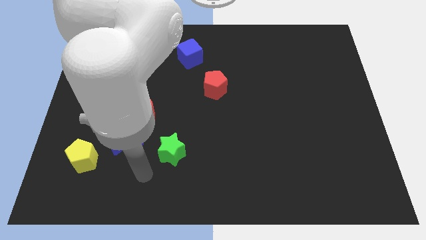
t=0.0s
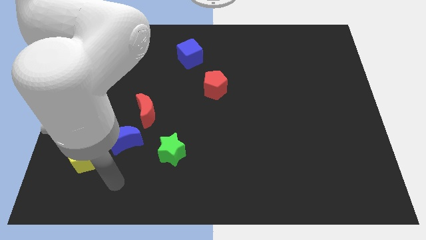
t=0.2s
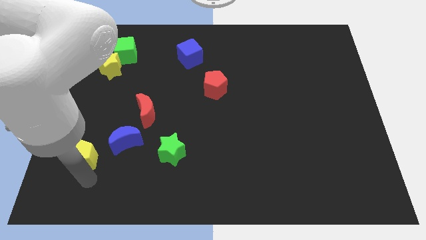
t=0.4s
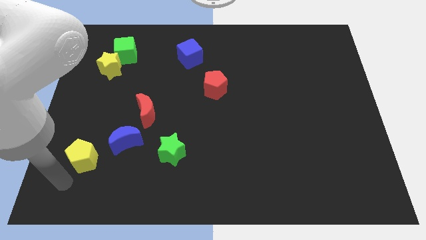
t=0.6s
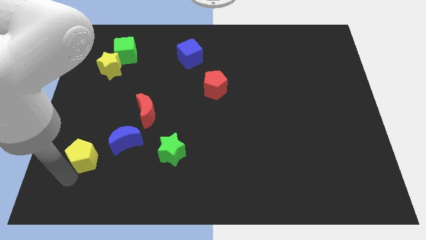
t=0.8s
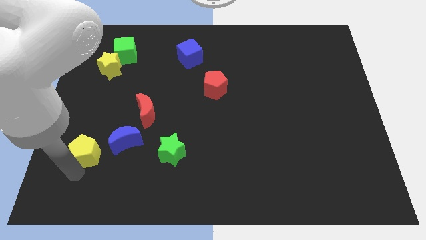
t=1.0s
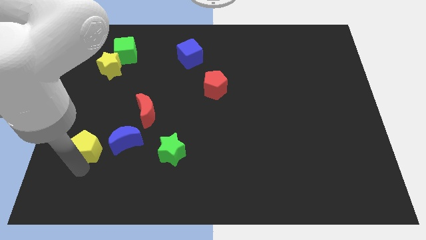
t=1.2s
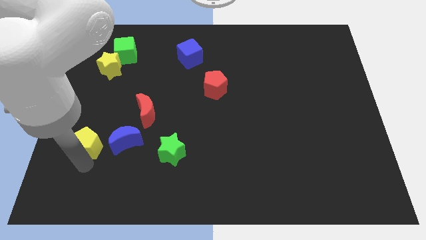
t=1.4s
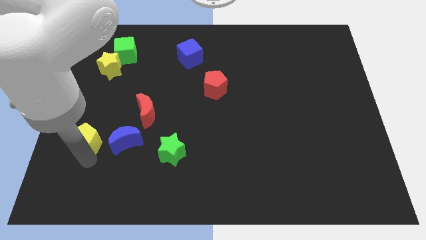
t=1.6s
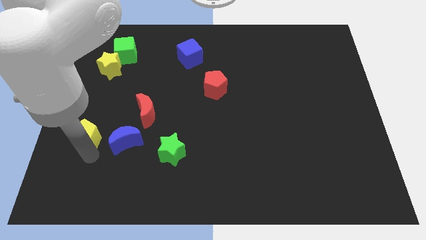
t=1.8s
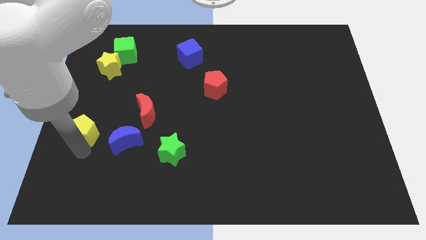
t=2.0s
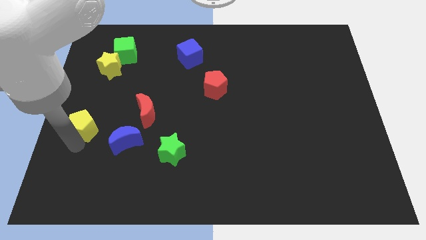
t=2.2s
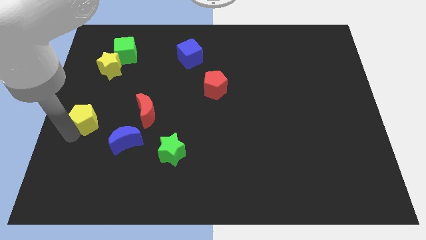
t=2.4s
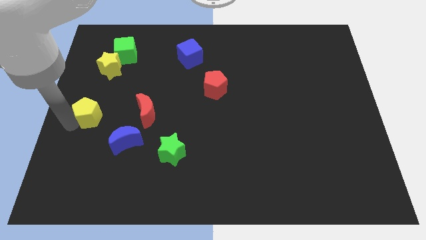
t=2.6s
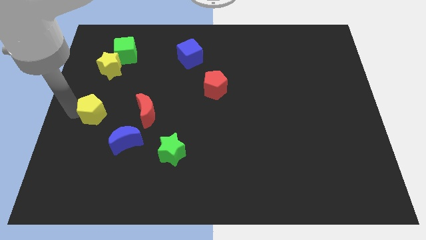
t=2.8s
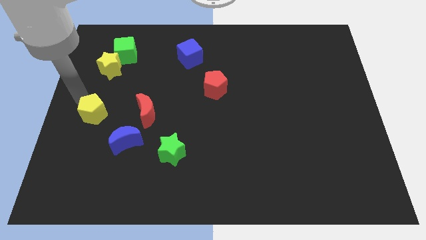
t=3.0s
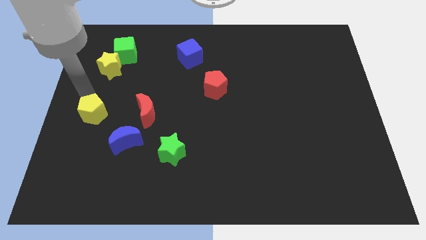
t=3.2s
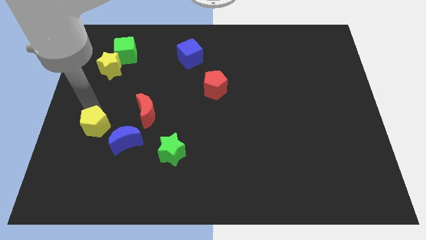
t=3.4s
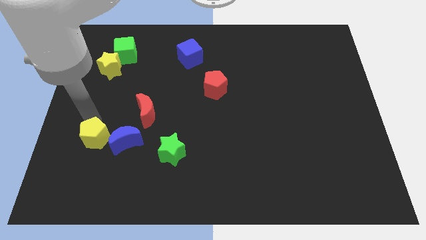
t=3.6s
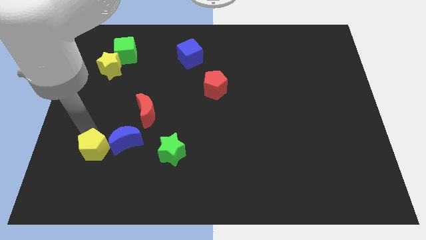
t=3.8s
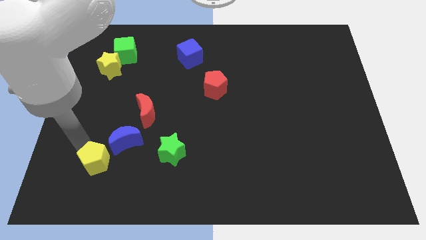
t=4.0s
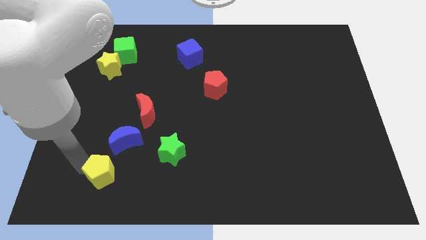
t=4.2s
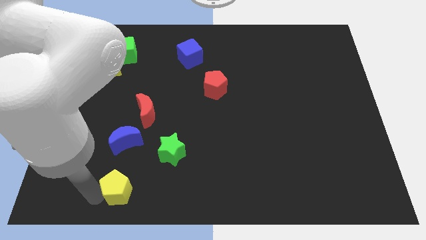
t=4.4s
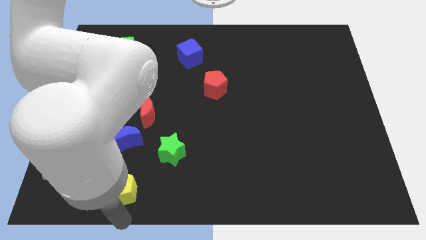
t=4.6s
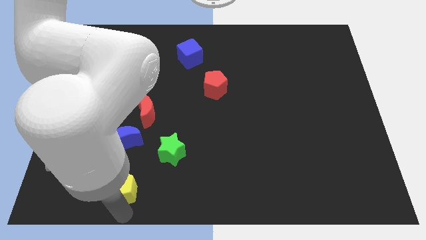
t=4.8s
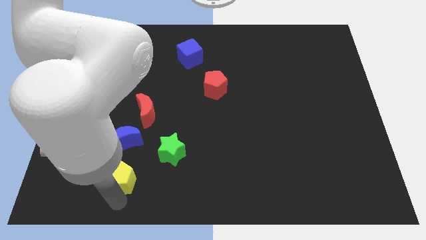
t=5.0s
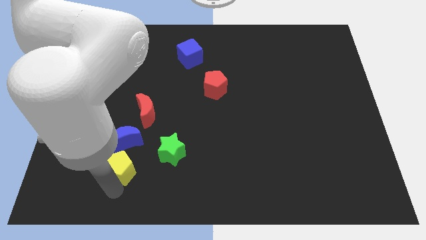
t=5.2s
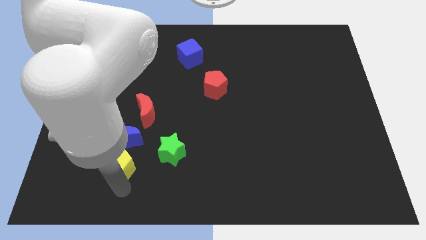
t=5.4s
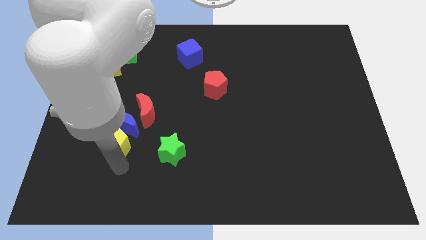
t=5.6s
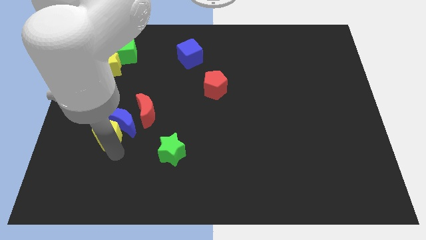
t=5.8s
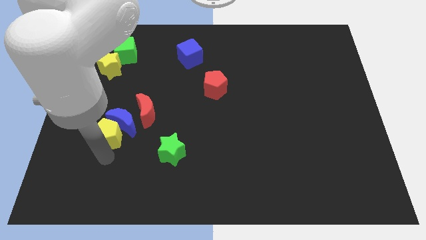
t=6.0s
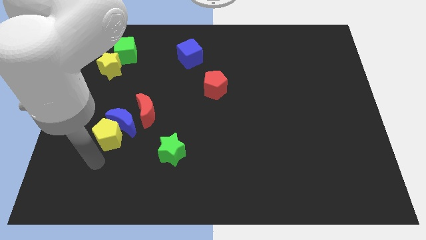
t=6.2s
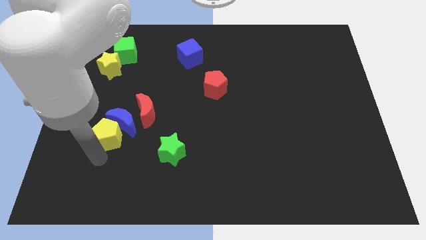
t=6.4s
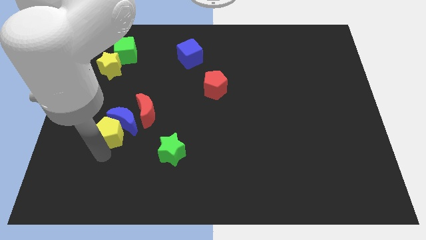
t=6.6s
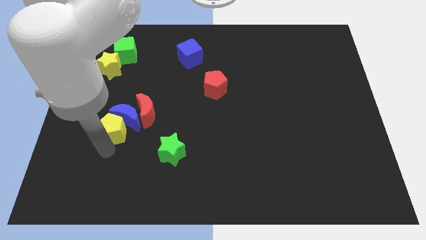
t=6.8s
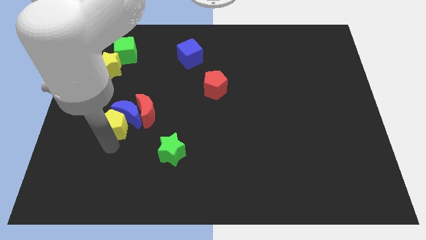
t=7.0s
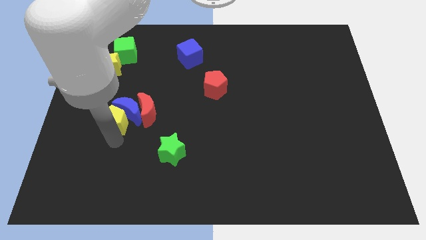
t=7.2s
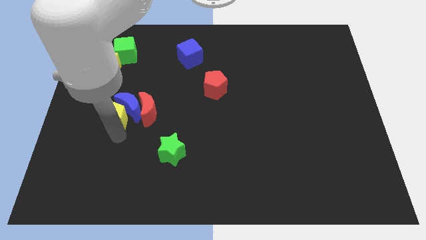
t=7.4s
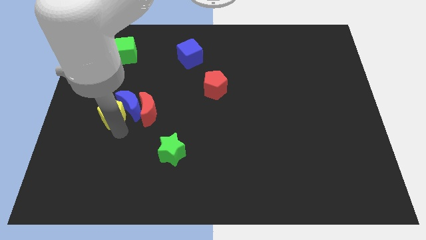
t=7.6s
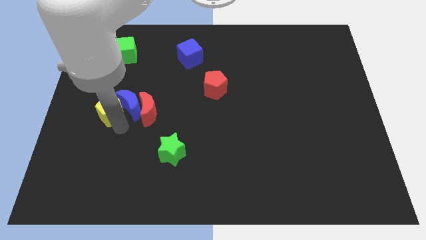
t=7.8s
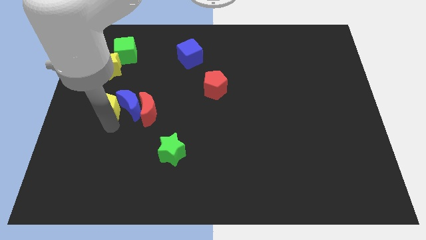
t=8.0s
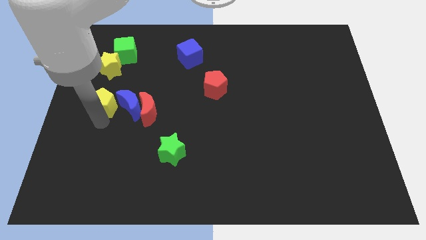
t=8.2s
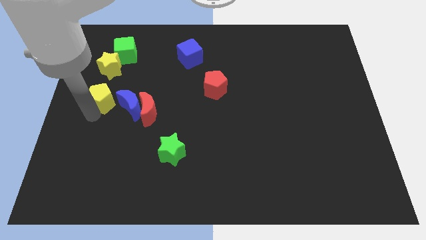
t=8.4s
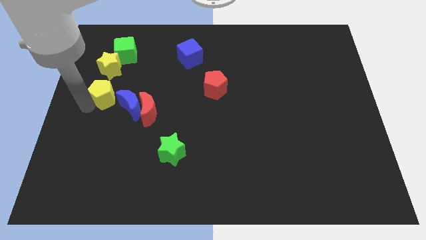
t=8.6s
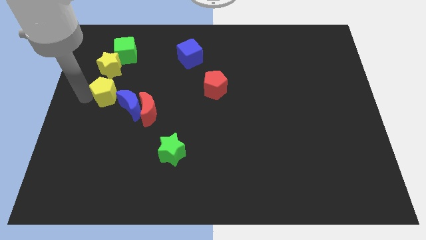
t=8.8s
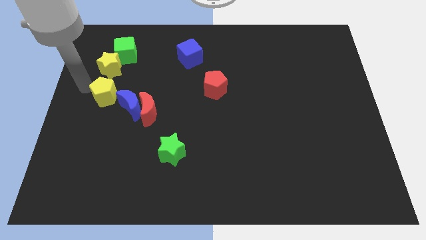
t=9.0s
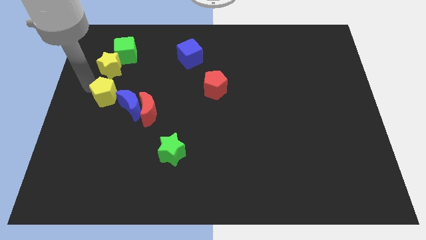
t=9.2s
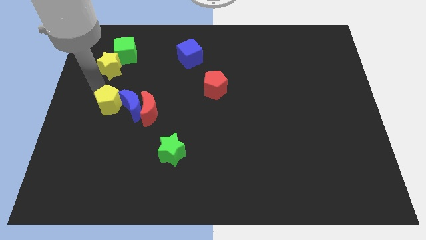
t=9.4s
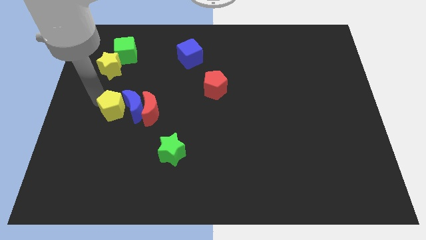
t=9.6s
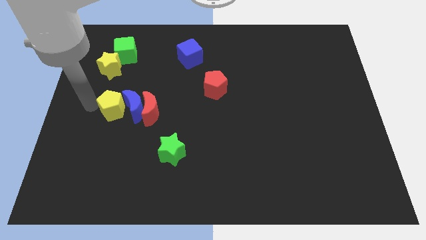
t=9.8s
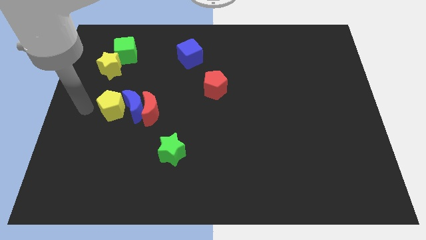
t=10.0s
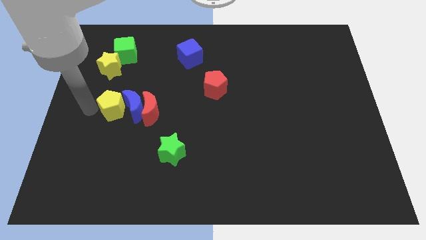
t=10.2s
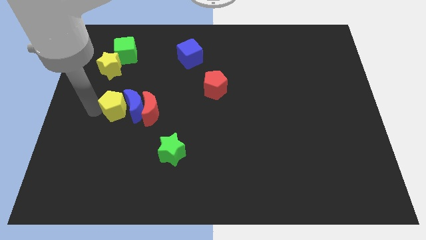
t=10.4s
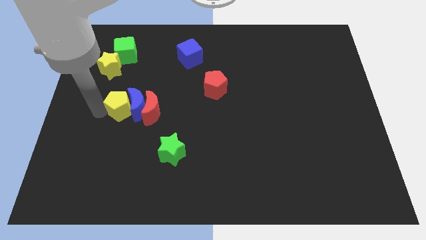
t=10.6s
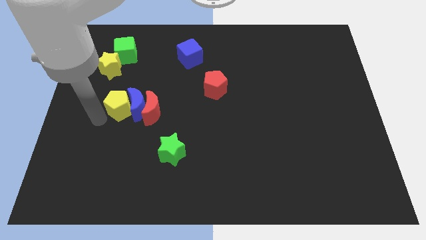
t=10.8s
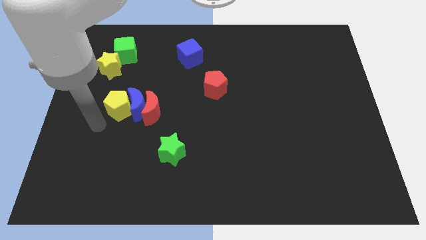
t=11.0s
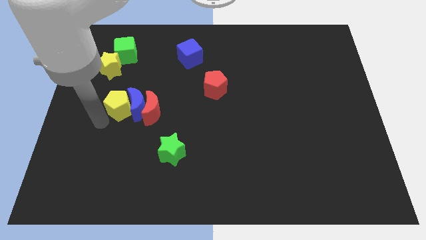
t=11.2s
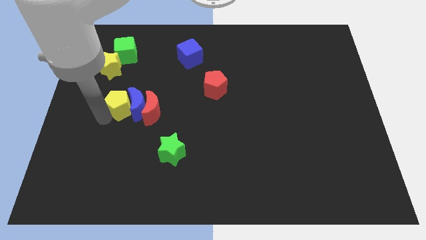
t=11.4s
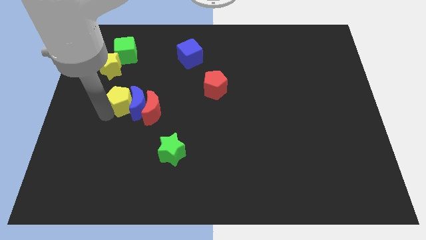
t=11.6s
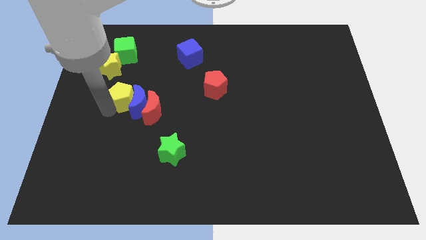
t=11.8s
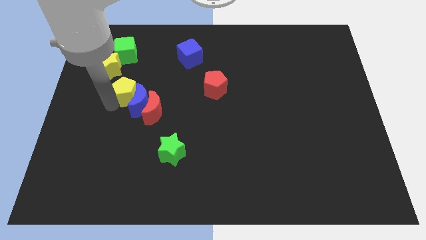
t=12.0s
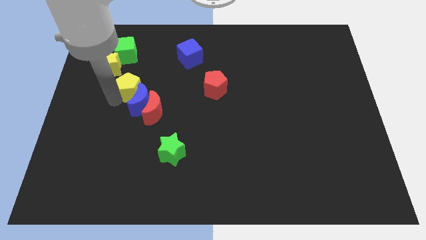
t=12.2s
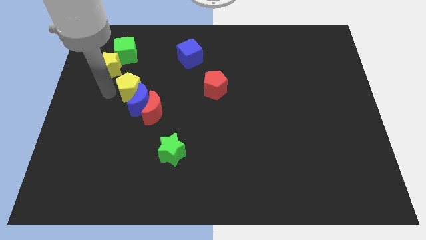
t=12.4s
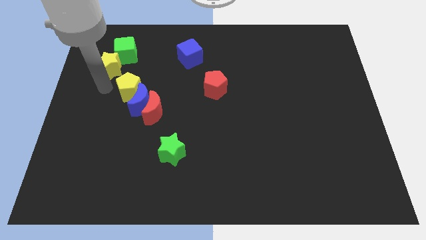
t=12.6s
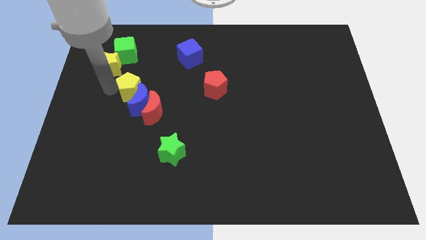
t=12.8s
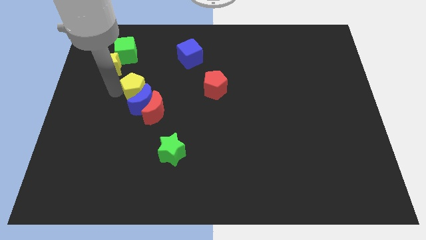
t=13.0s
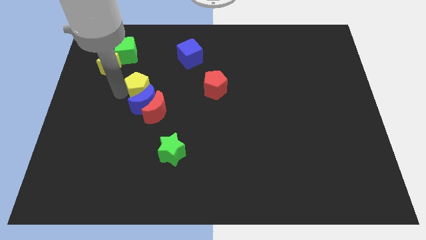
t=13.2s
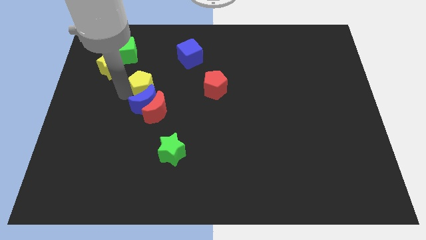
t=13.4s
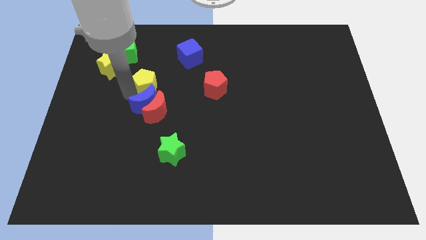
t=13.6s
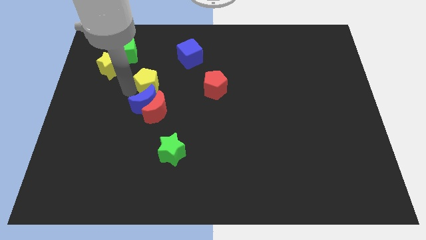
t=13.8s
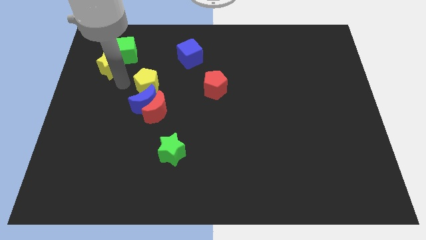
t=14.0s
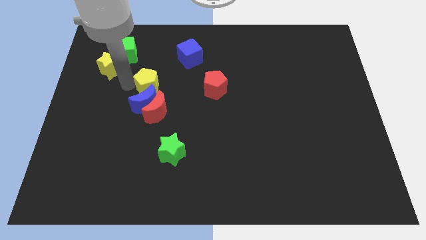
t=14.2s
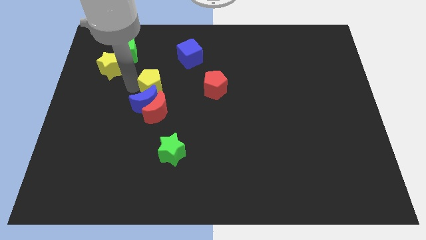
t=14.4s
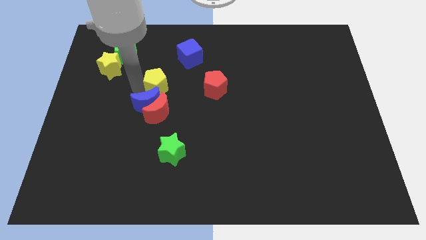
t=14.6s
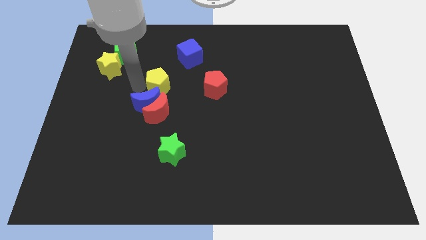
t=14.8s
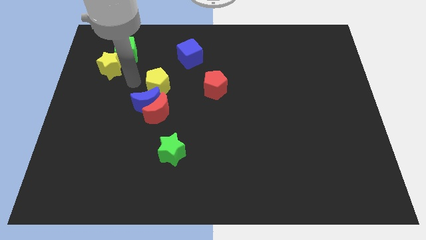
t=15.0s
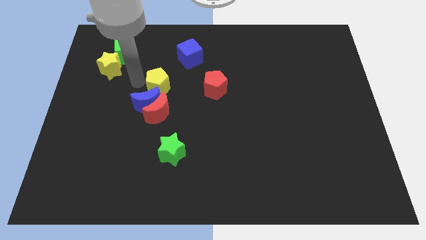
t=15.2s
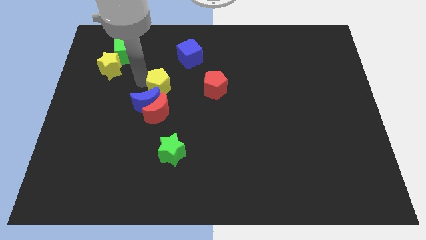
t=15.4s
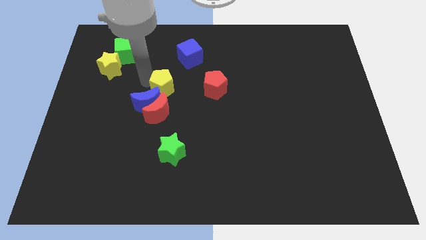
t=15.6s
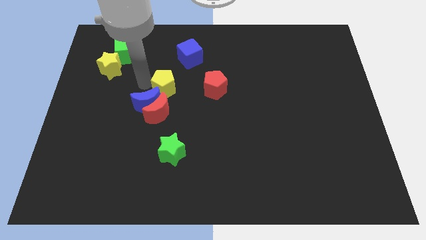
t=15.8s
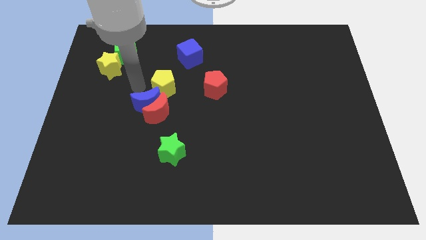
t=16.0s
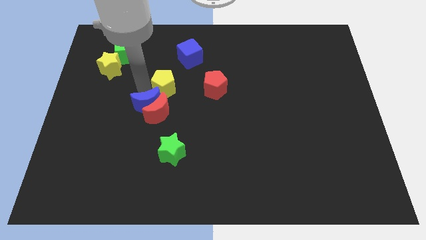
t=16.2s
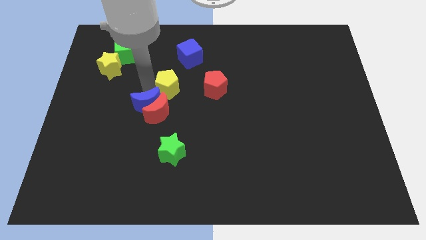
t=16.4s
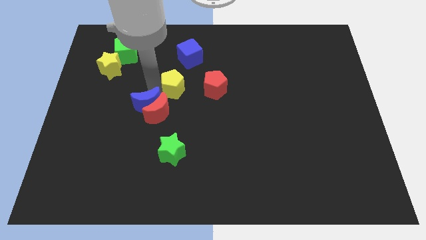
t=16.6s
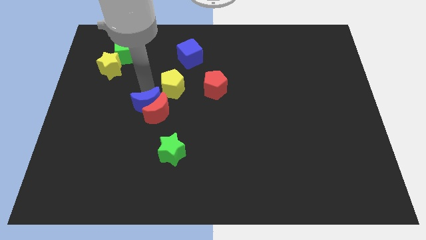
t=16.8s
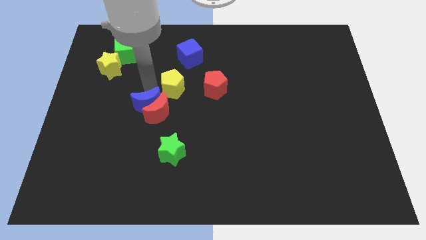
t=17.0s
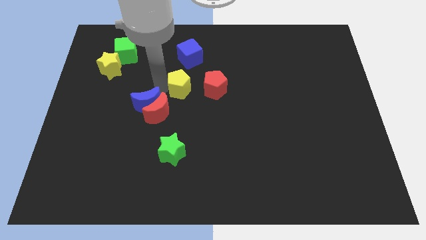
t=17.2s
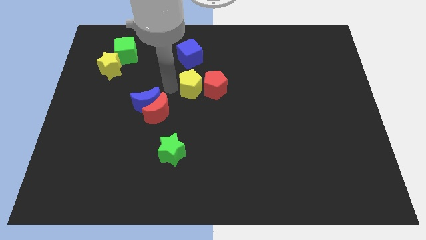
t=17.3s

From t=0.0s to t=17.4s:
move the yellow pentagon to the red pentagon
